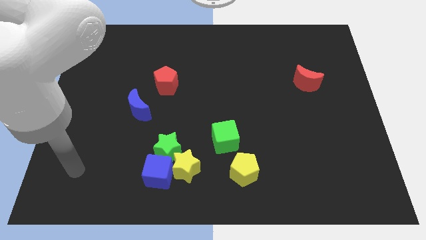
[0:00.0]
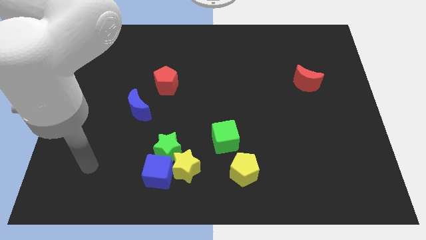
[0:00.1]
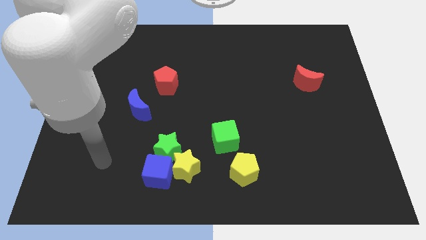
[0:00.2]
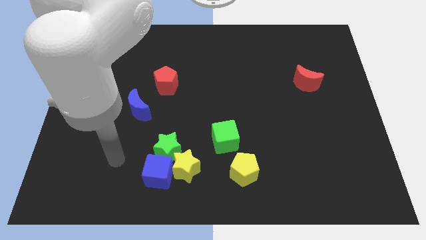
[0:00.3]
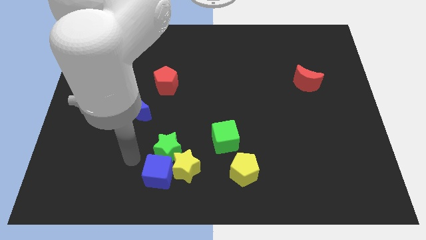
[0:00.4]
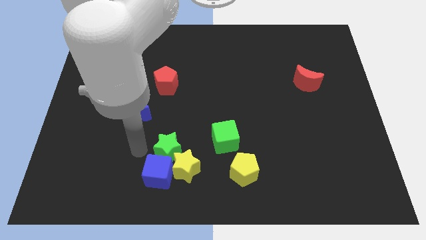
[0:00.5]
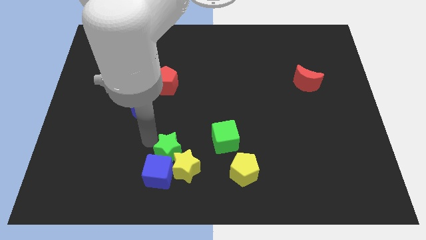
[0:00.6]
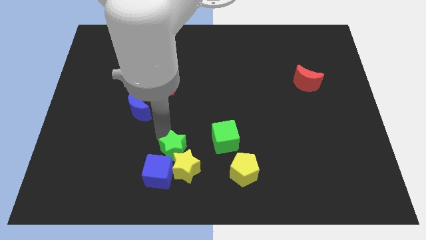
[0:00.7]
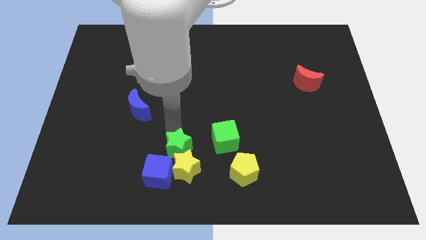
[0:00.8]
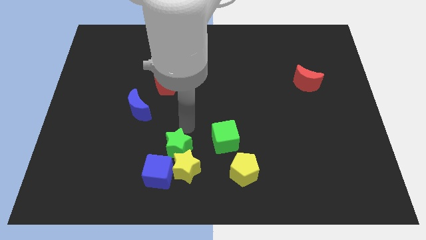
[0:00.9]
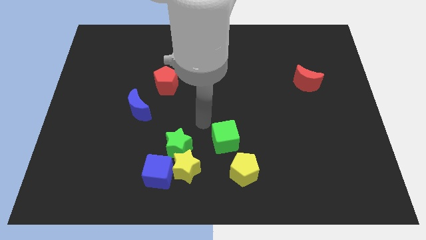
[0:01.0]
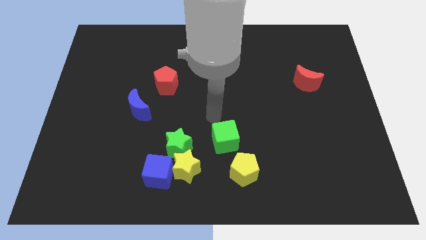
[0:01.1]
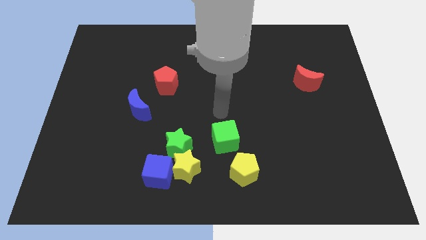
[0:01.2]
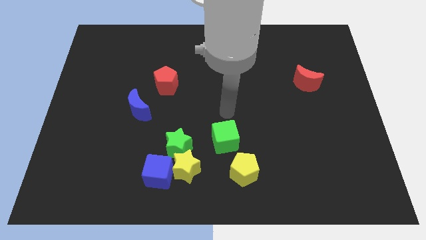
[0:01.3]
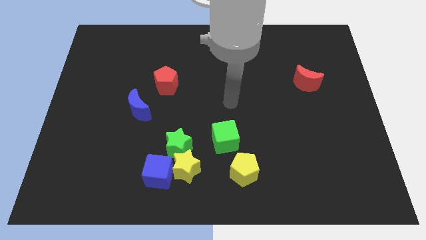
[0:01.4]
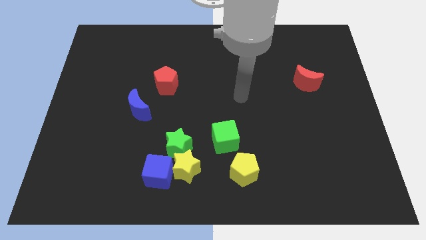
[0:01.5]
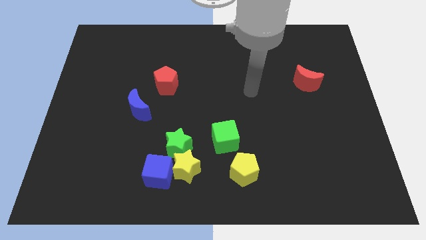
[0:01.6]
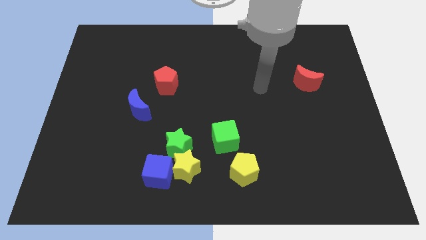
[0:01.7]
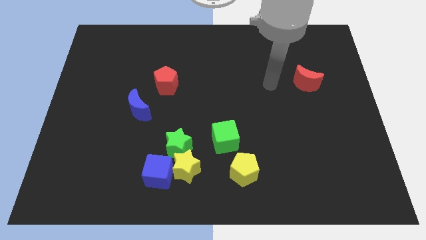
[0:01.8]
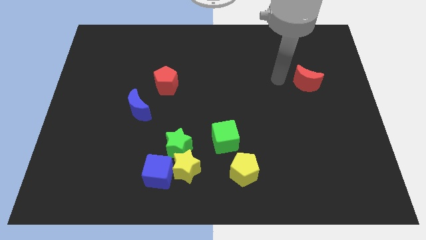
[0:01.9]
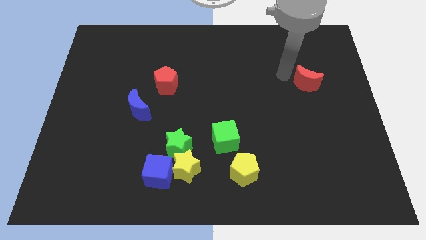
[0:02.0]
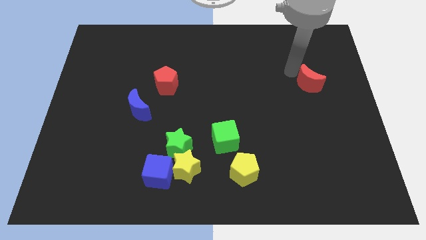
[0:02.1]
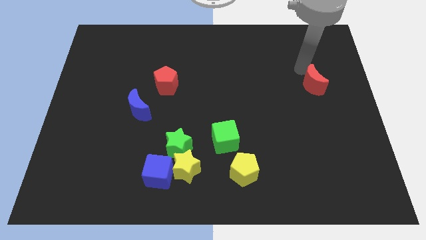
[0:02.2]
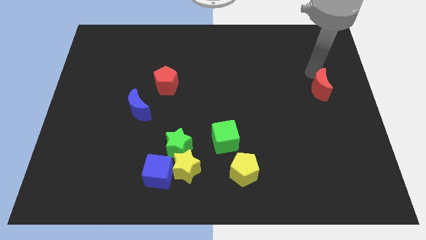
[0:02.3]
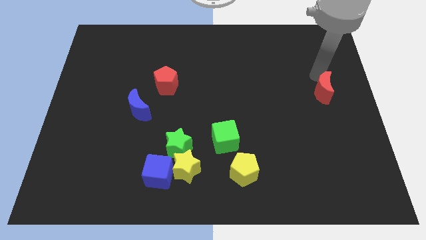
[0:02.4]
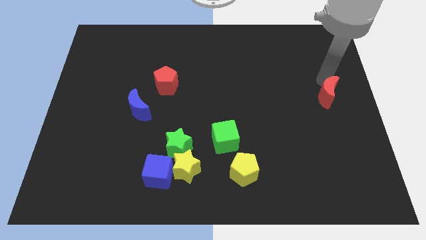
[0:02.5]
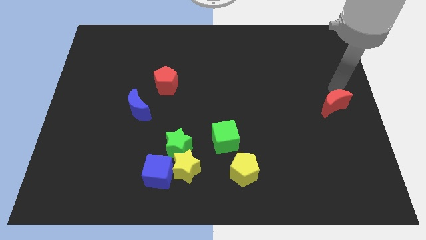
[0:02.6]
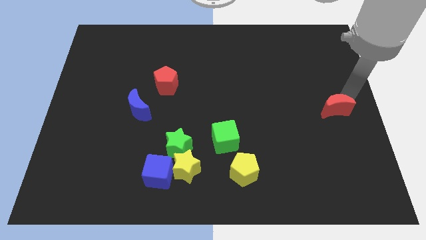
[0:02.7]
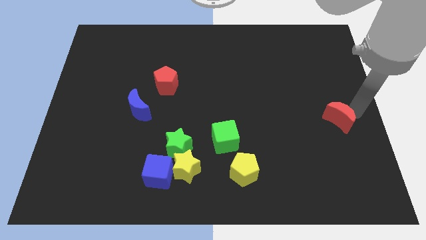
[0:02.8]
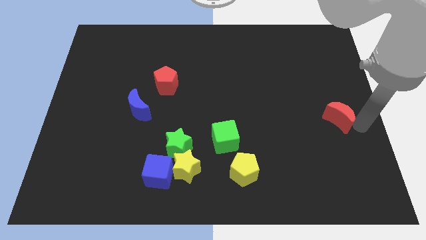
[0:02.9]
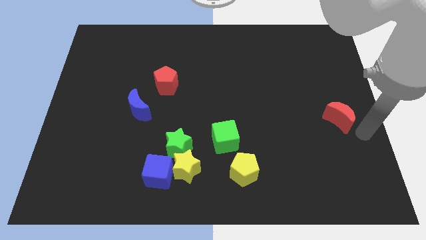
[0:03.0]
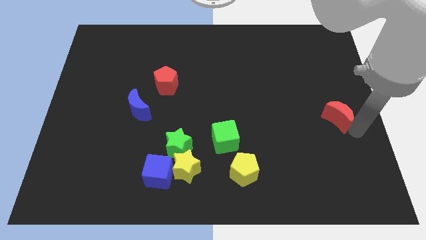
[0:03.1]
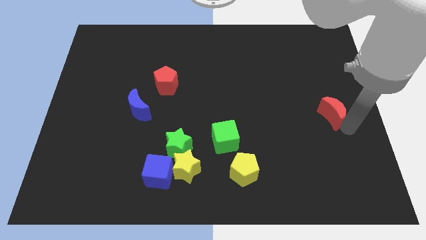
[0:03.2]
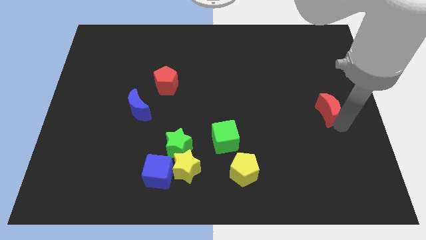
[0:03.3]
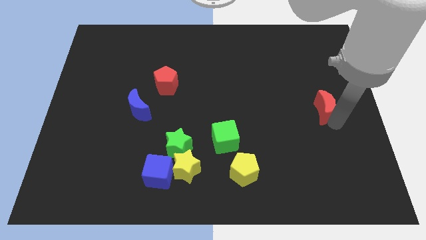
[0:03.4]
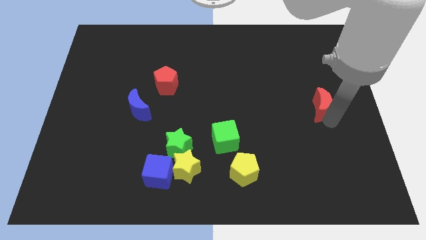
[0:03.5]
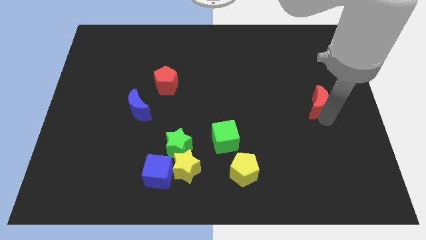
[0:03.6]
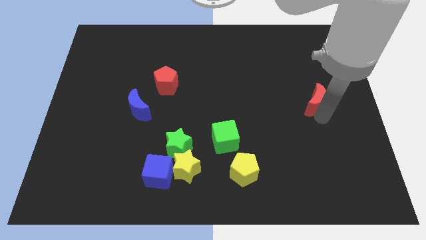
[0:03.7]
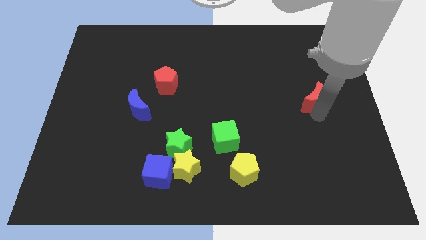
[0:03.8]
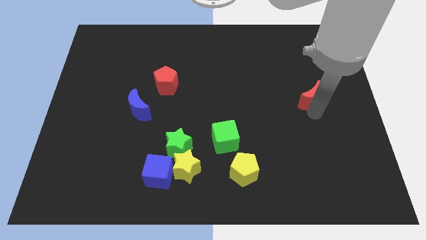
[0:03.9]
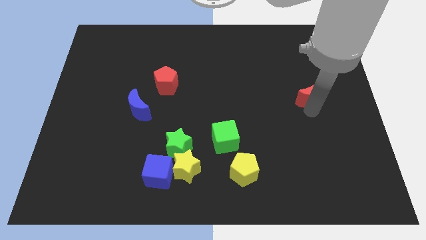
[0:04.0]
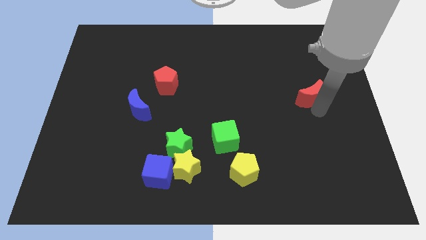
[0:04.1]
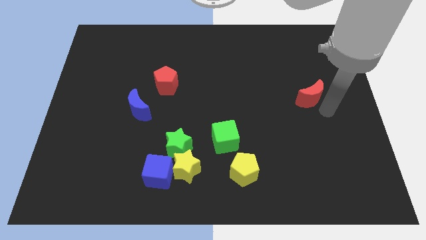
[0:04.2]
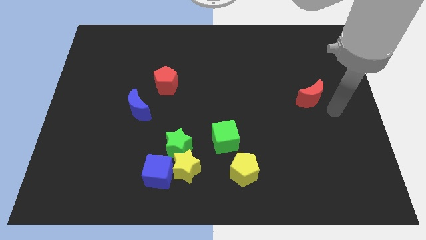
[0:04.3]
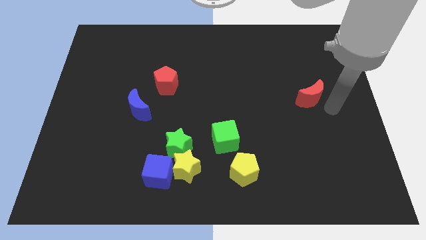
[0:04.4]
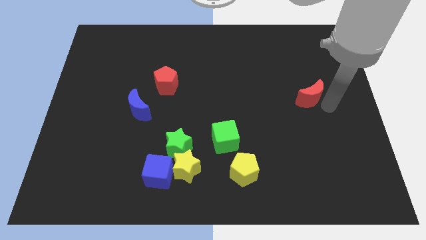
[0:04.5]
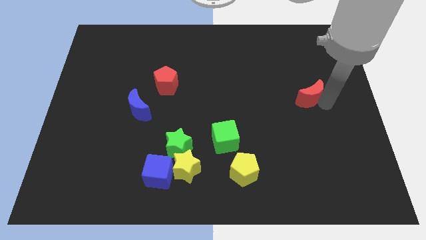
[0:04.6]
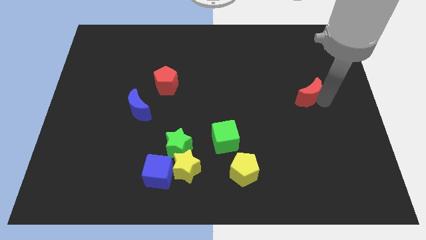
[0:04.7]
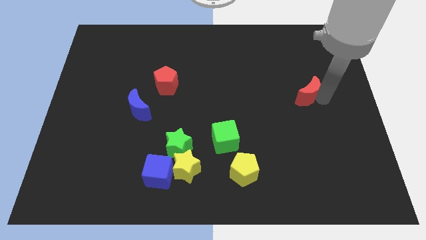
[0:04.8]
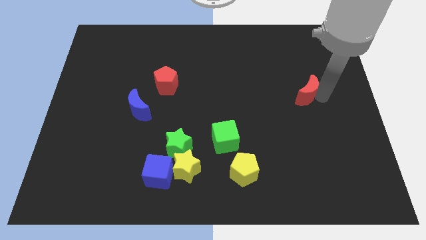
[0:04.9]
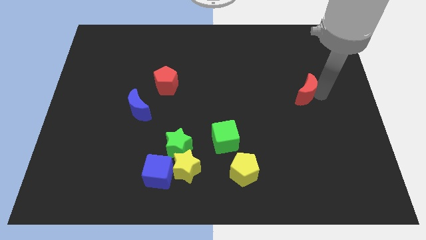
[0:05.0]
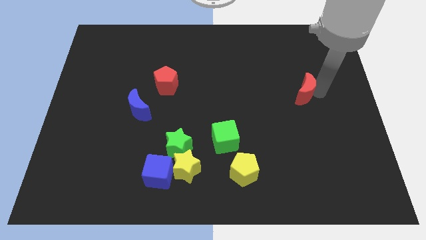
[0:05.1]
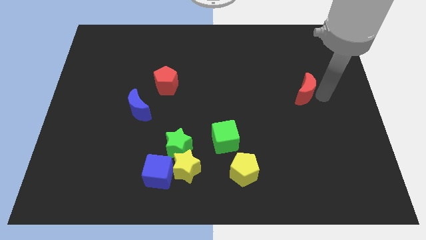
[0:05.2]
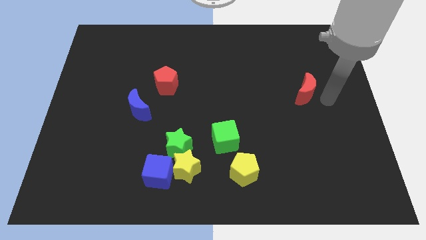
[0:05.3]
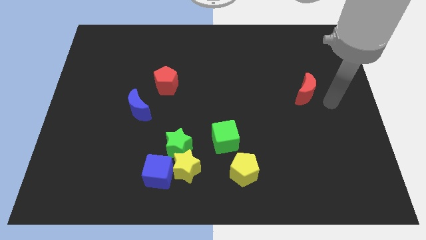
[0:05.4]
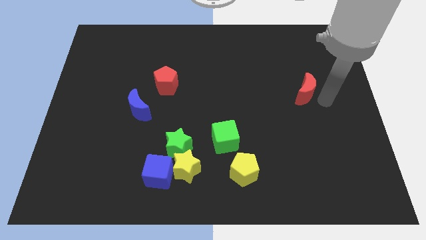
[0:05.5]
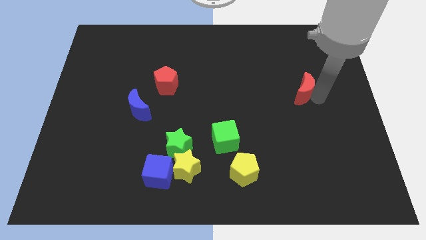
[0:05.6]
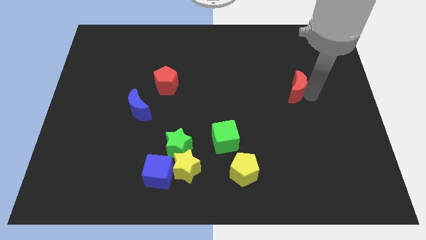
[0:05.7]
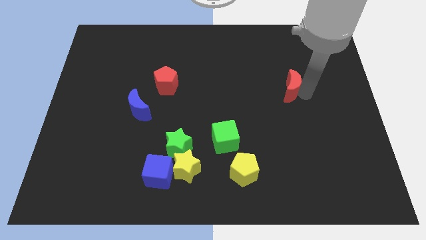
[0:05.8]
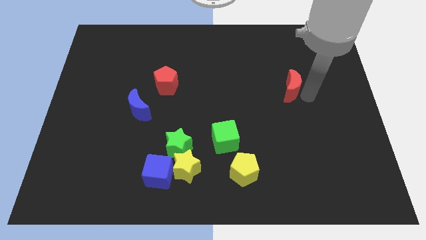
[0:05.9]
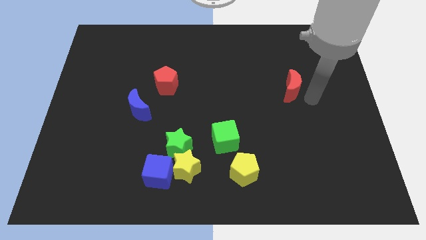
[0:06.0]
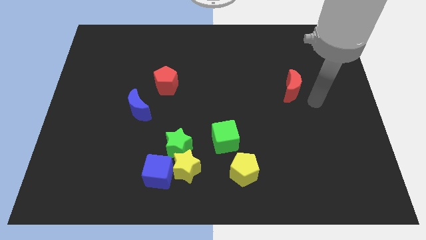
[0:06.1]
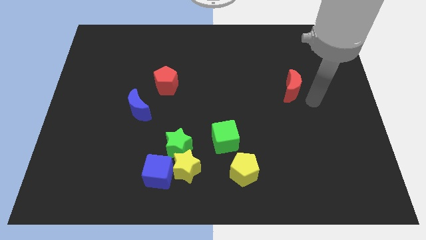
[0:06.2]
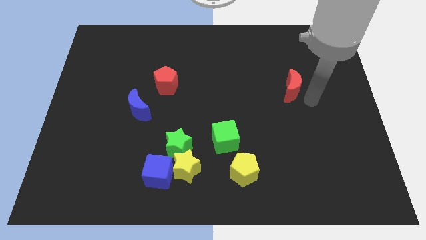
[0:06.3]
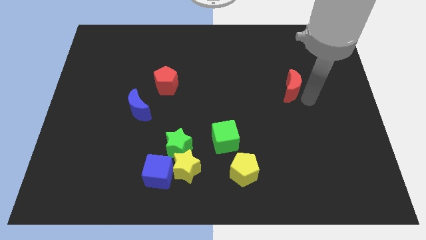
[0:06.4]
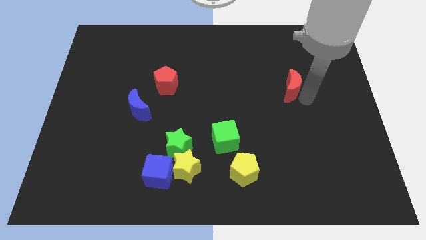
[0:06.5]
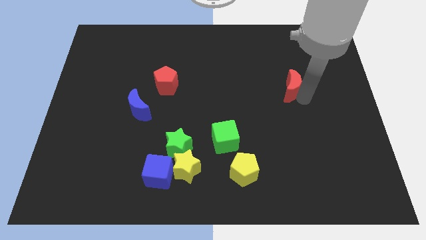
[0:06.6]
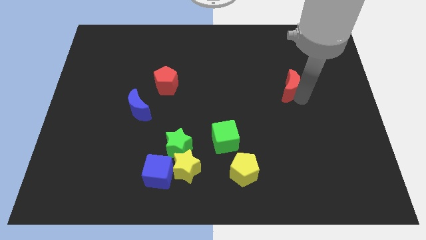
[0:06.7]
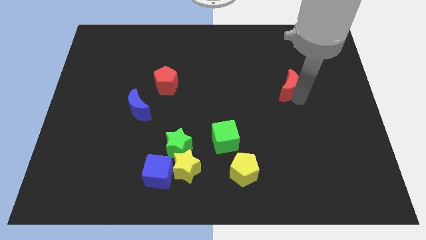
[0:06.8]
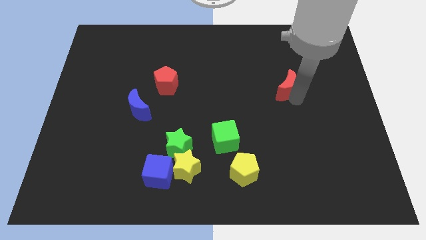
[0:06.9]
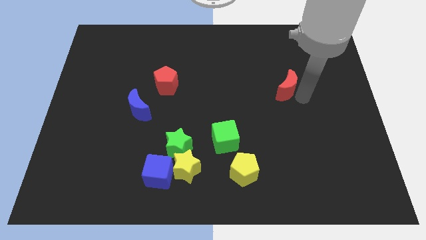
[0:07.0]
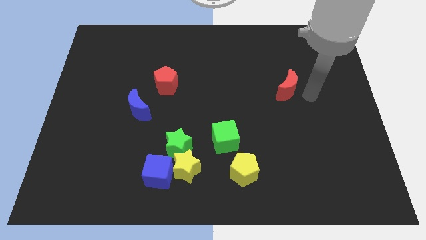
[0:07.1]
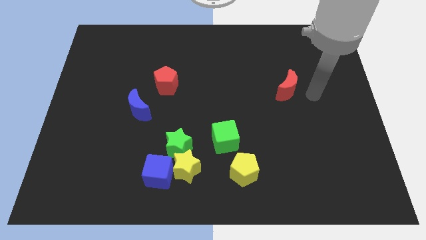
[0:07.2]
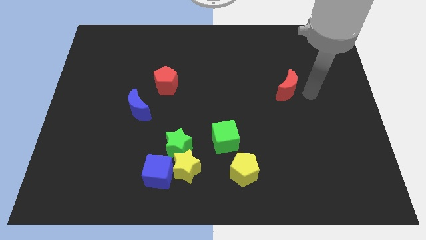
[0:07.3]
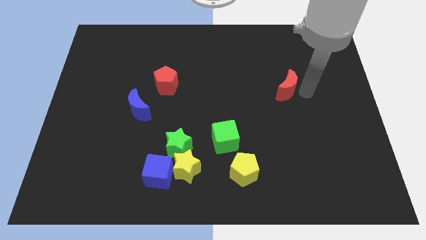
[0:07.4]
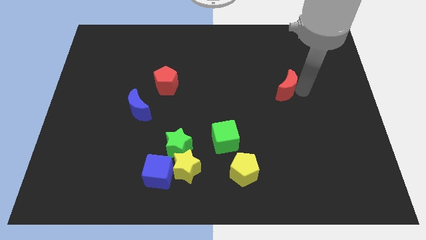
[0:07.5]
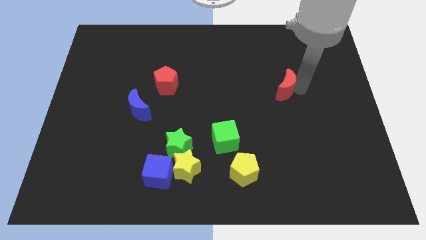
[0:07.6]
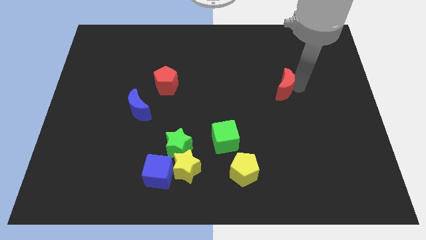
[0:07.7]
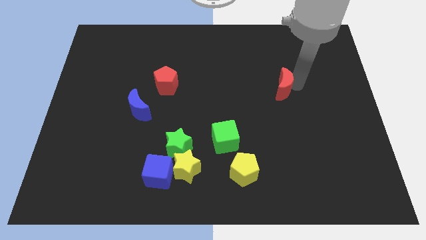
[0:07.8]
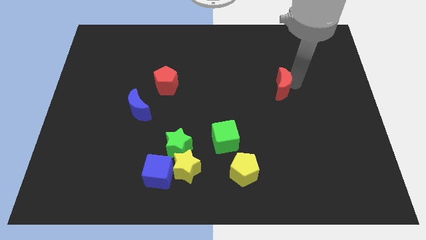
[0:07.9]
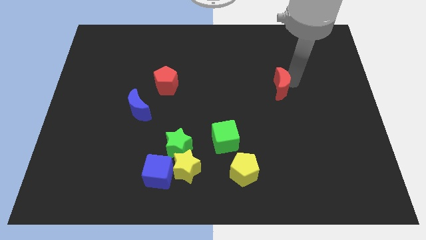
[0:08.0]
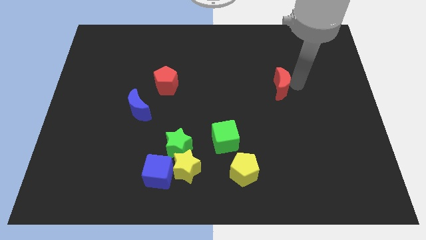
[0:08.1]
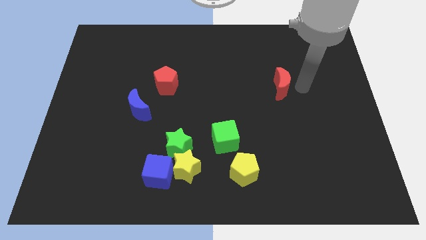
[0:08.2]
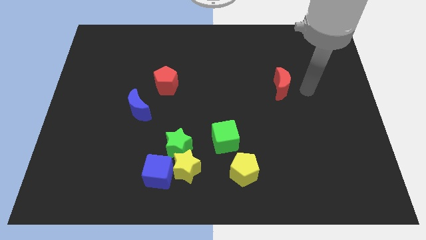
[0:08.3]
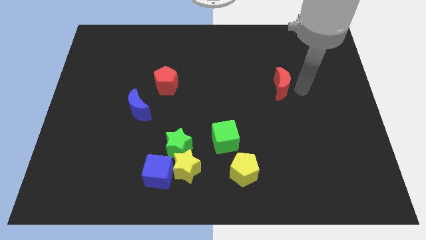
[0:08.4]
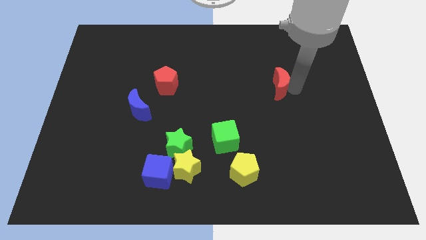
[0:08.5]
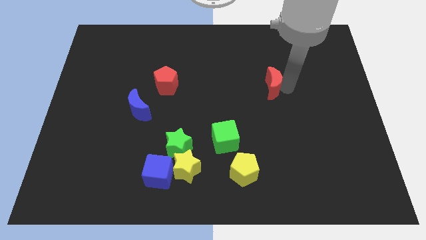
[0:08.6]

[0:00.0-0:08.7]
slightly move the red moon left
